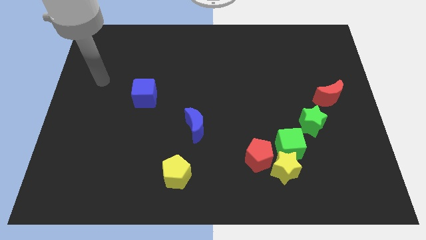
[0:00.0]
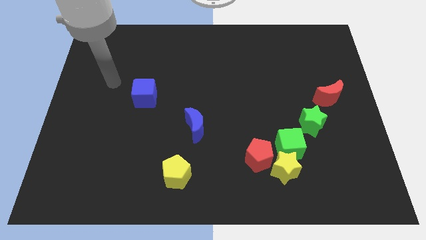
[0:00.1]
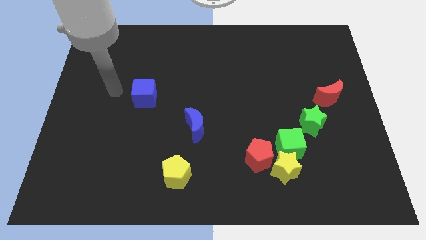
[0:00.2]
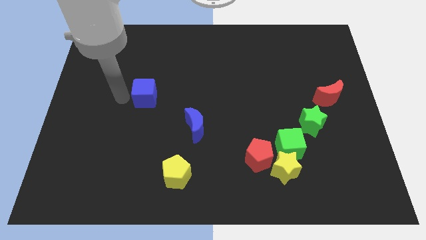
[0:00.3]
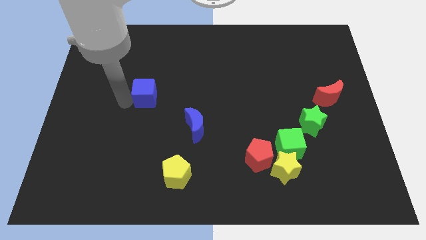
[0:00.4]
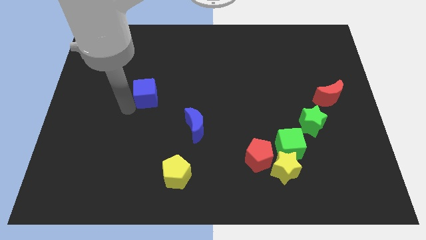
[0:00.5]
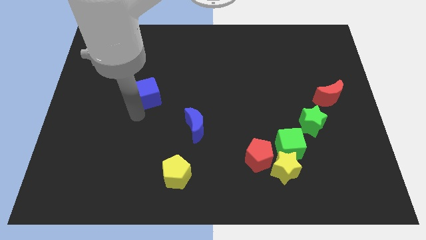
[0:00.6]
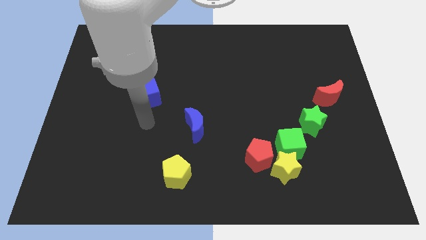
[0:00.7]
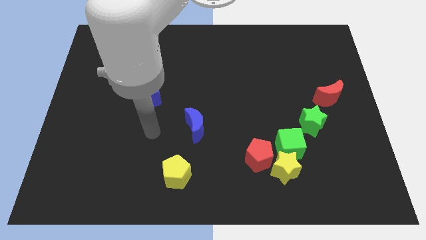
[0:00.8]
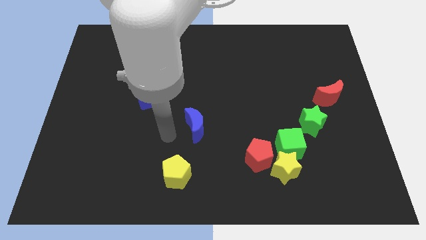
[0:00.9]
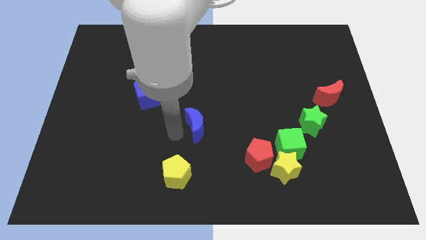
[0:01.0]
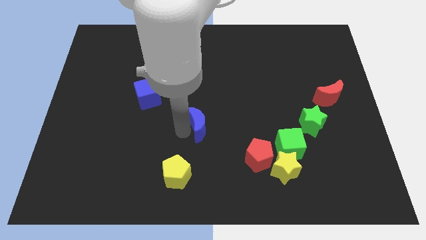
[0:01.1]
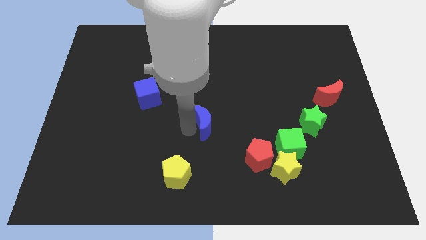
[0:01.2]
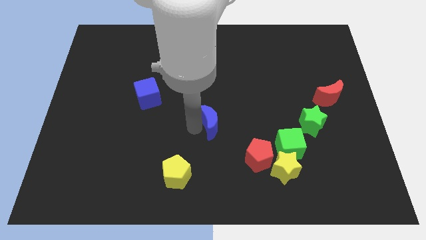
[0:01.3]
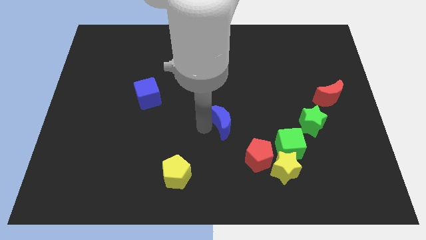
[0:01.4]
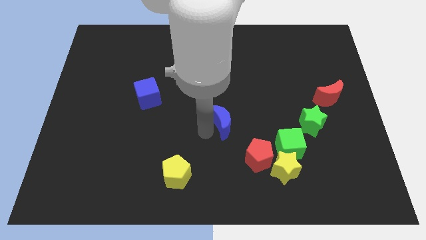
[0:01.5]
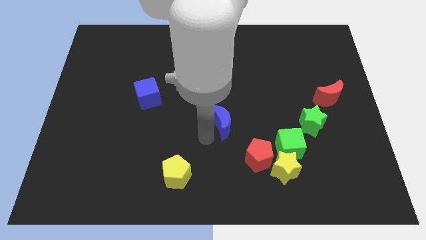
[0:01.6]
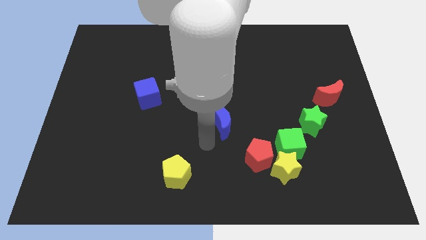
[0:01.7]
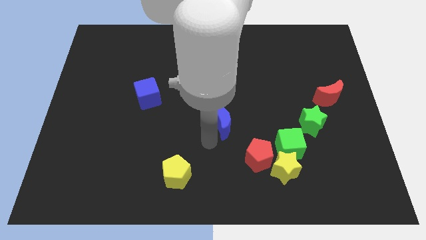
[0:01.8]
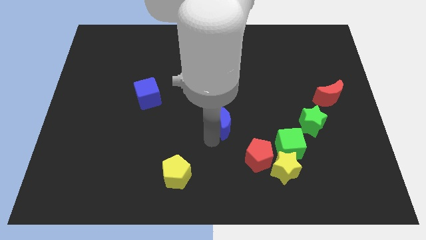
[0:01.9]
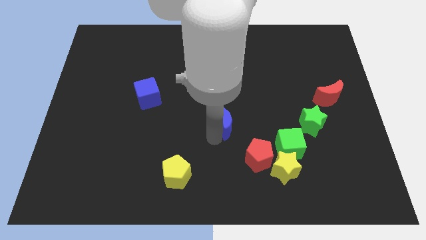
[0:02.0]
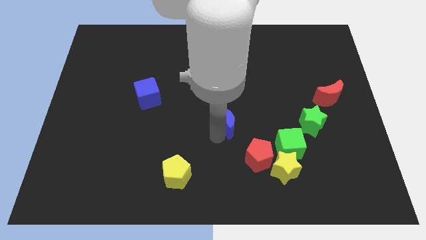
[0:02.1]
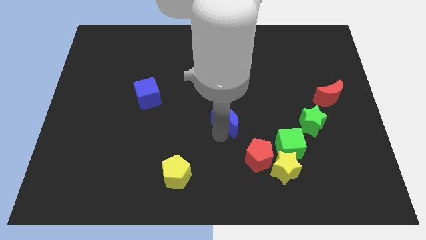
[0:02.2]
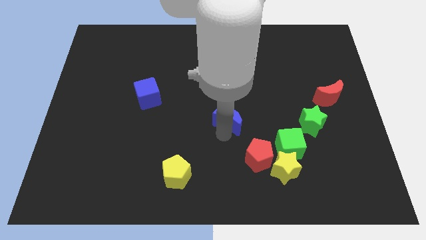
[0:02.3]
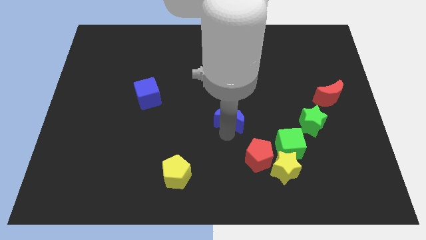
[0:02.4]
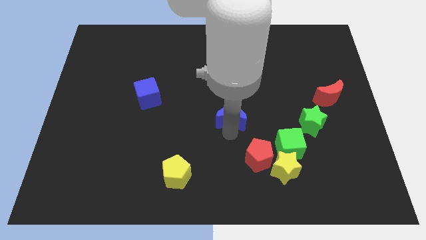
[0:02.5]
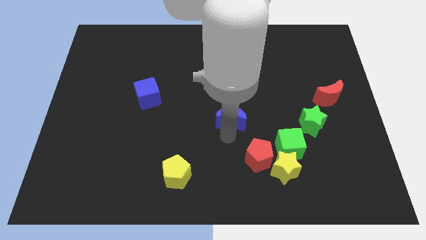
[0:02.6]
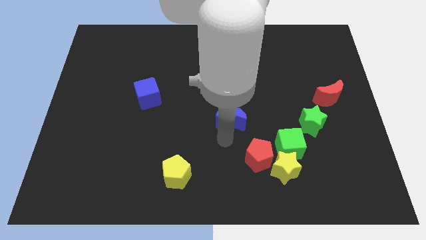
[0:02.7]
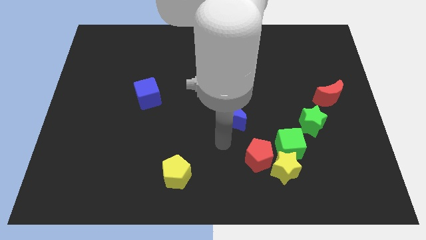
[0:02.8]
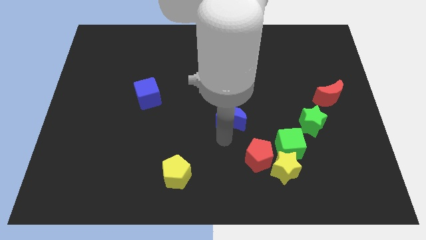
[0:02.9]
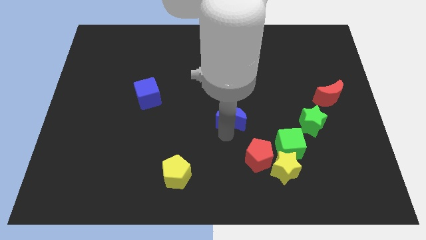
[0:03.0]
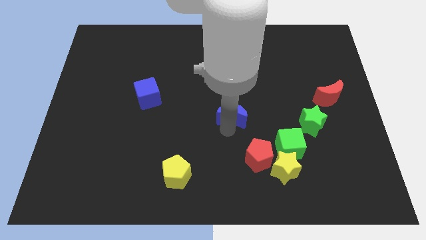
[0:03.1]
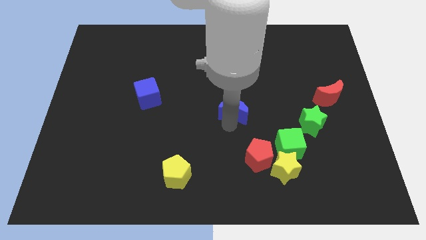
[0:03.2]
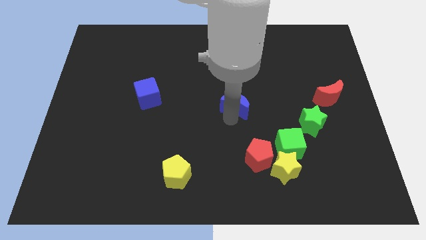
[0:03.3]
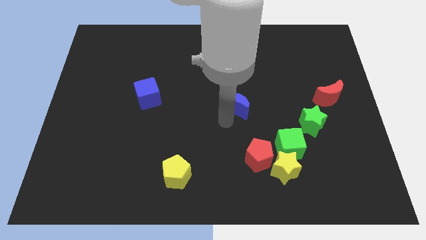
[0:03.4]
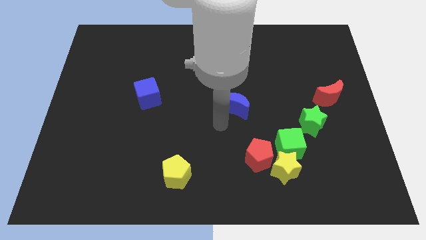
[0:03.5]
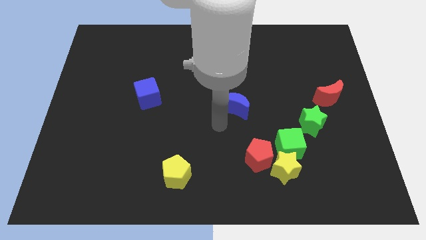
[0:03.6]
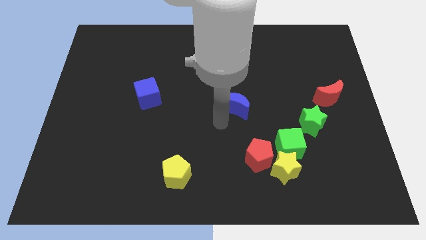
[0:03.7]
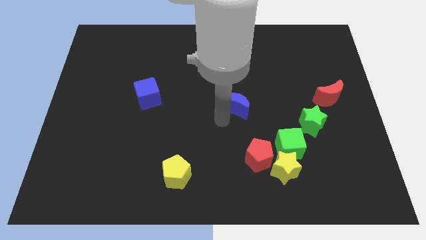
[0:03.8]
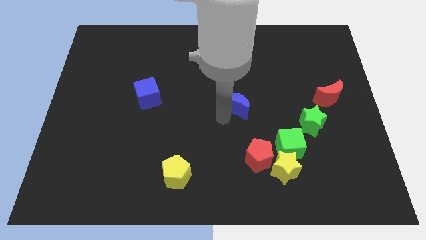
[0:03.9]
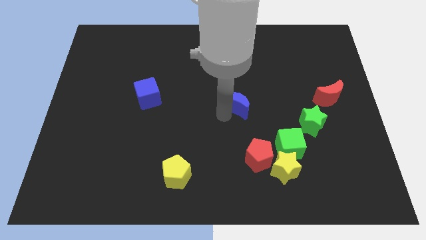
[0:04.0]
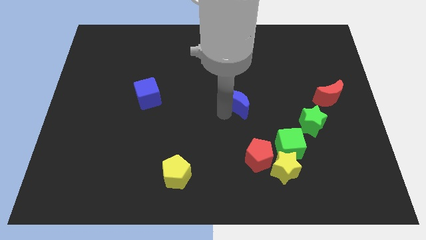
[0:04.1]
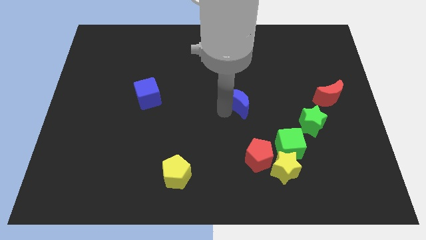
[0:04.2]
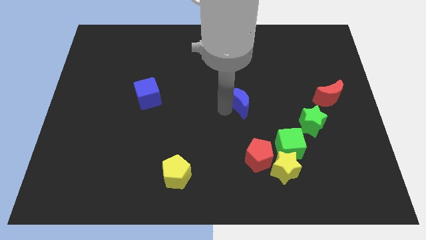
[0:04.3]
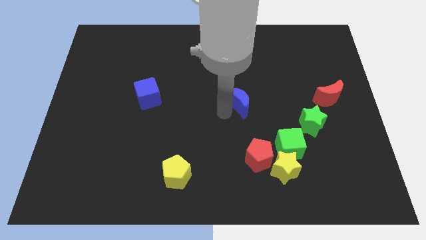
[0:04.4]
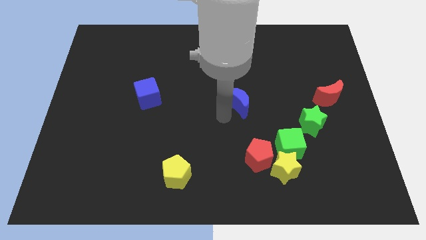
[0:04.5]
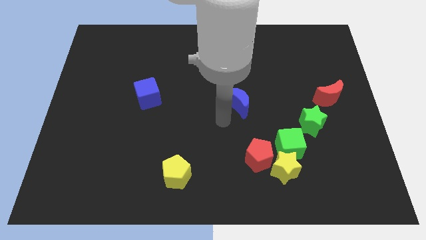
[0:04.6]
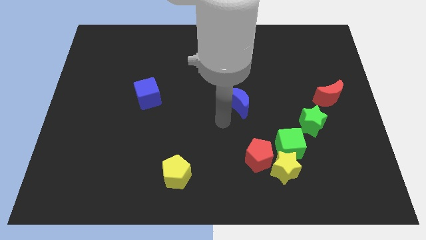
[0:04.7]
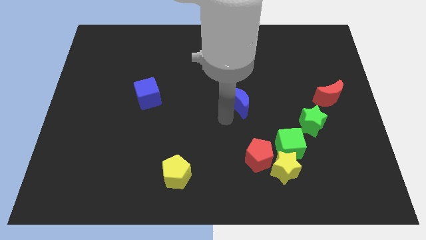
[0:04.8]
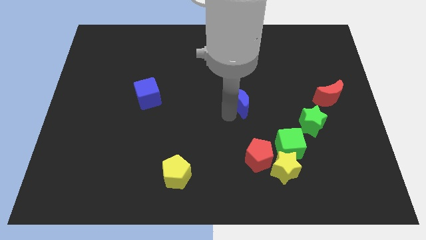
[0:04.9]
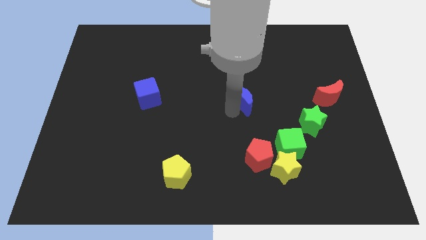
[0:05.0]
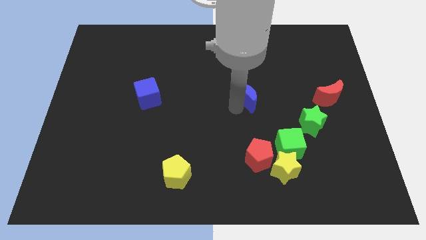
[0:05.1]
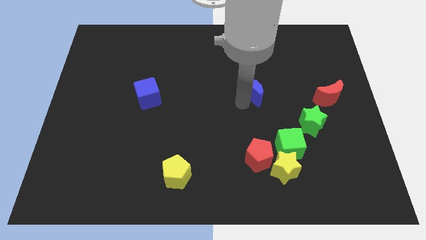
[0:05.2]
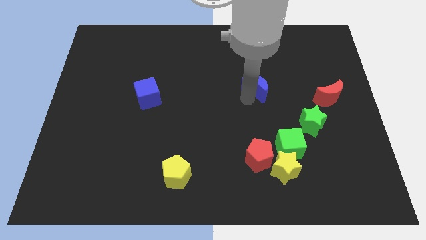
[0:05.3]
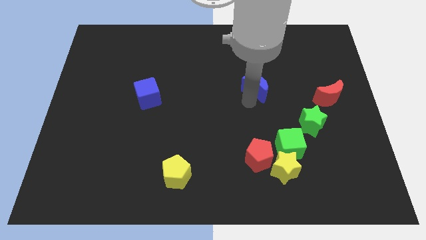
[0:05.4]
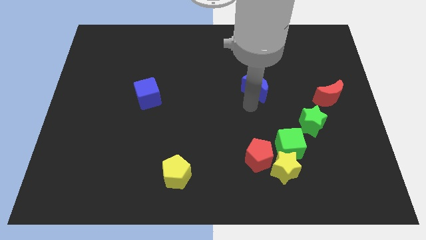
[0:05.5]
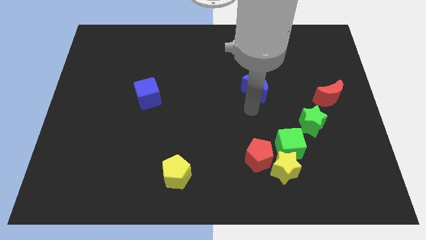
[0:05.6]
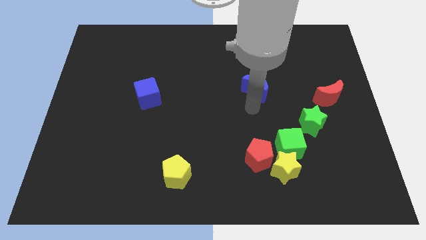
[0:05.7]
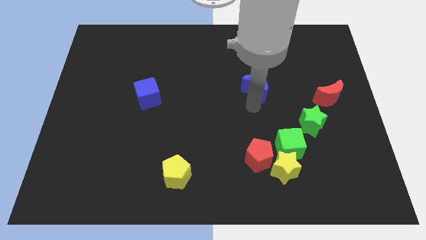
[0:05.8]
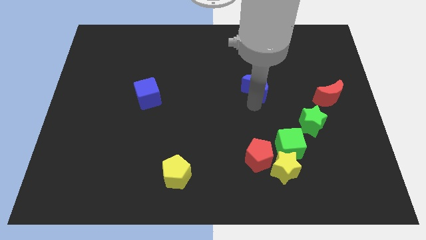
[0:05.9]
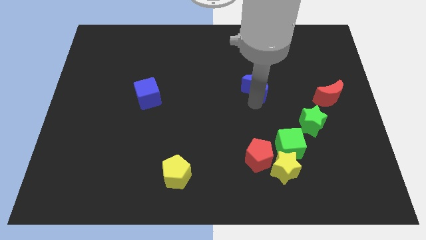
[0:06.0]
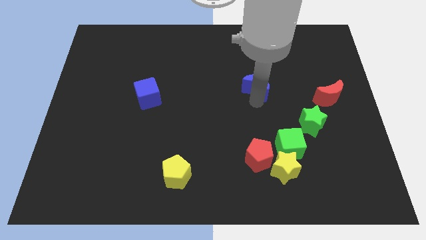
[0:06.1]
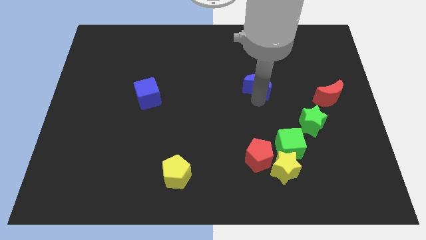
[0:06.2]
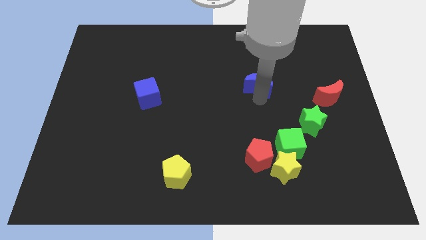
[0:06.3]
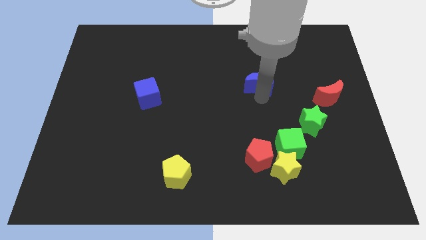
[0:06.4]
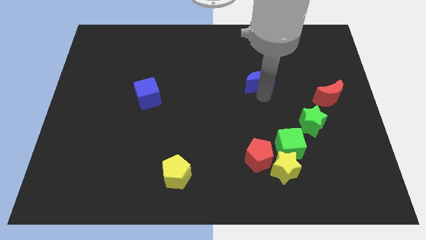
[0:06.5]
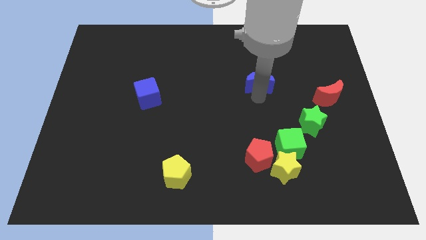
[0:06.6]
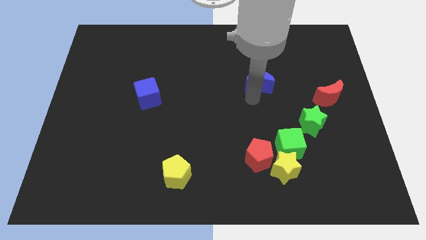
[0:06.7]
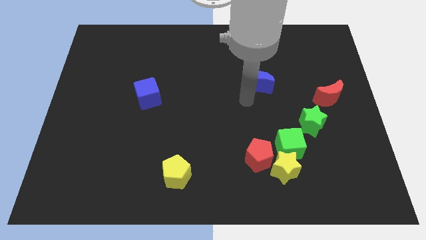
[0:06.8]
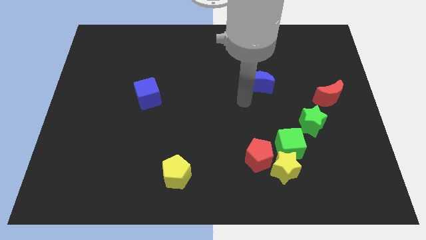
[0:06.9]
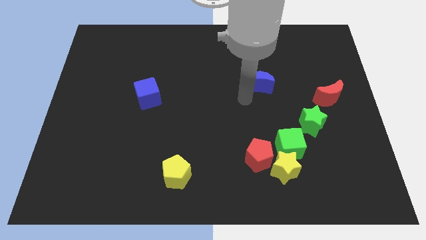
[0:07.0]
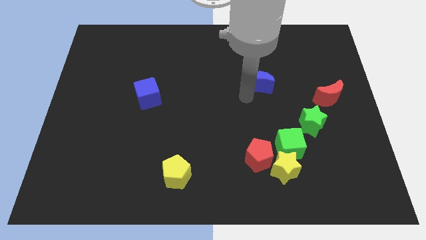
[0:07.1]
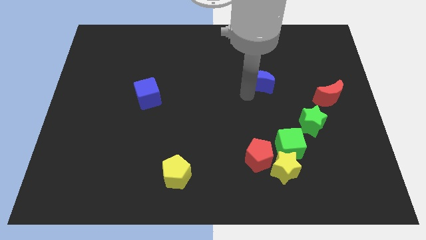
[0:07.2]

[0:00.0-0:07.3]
move the blue moon upwards and right diagonally
